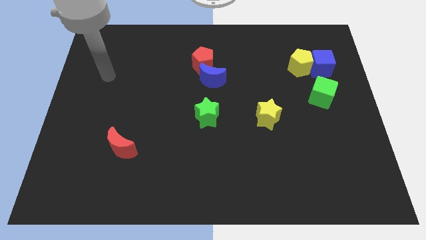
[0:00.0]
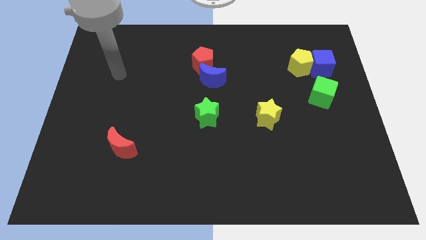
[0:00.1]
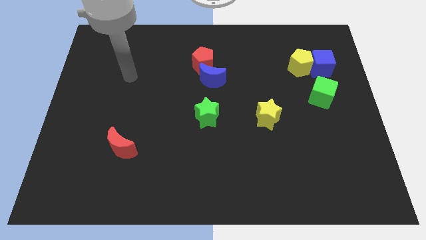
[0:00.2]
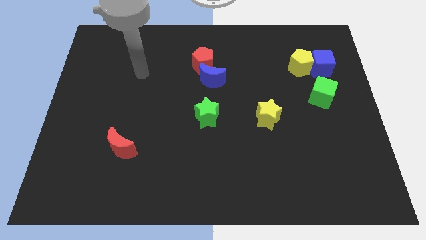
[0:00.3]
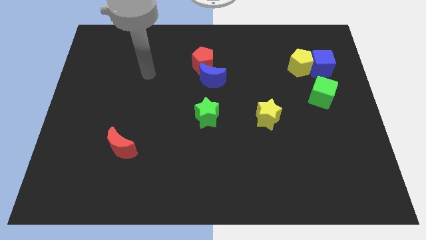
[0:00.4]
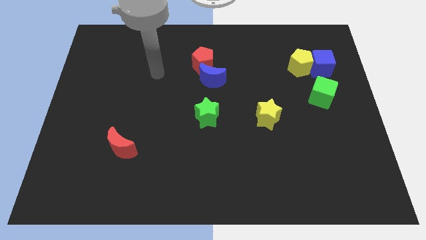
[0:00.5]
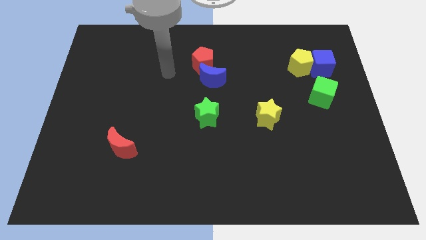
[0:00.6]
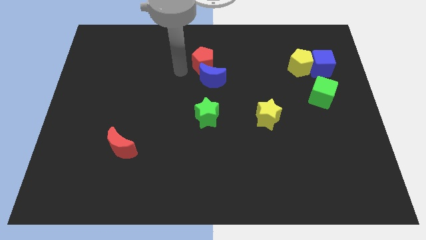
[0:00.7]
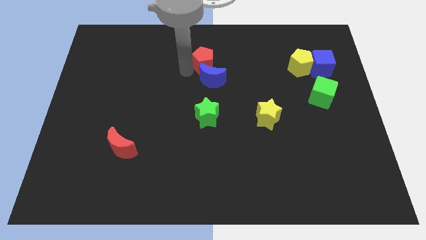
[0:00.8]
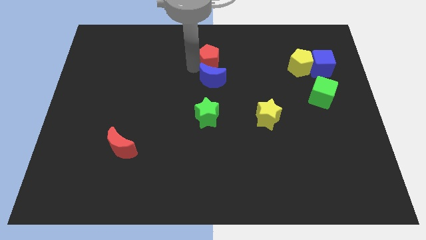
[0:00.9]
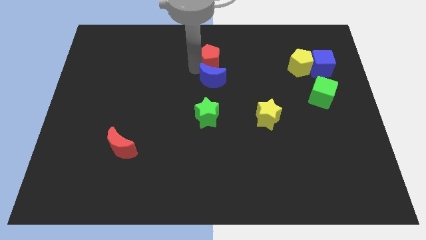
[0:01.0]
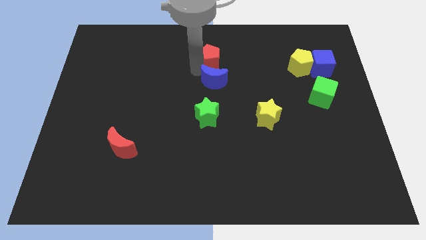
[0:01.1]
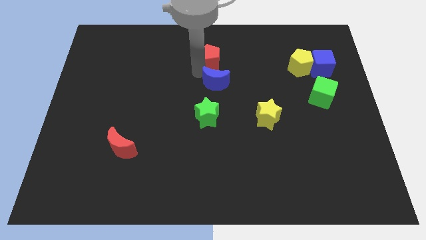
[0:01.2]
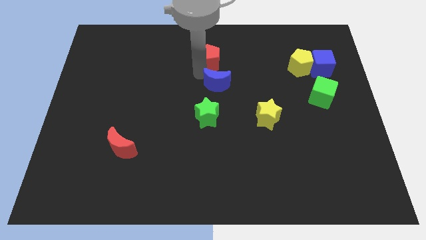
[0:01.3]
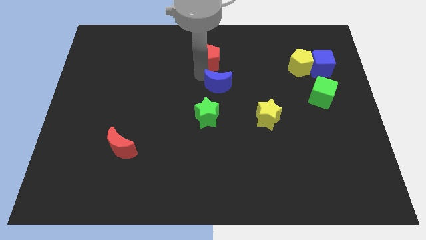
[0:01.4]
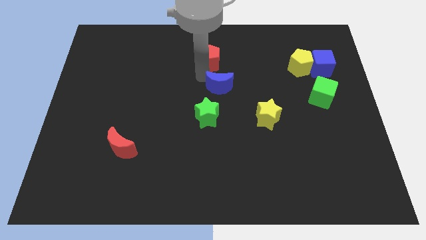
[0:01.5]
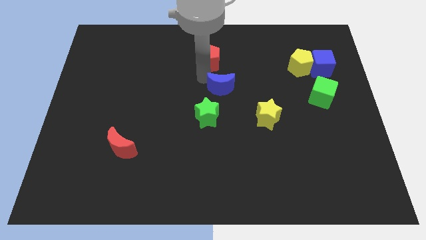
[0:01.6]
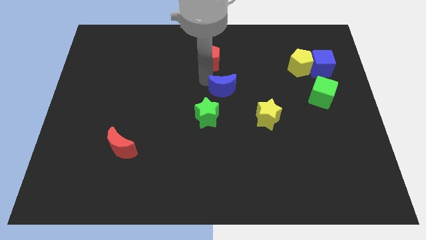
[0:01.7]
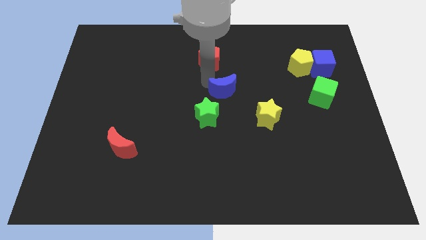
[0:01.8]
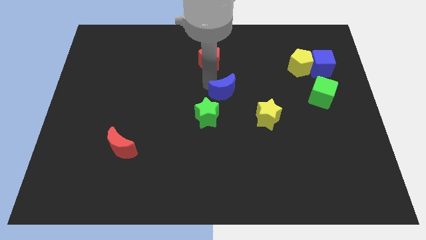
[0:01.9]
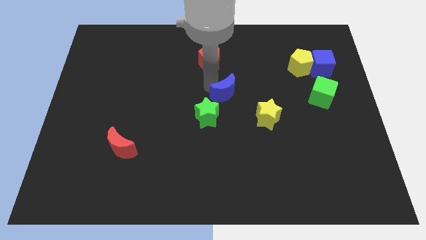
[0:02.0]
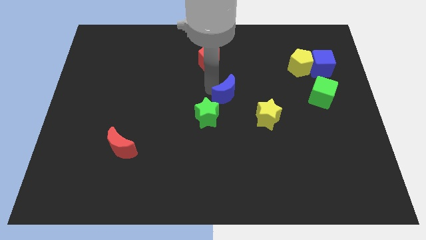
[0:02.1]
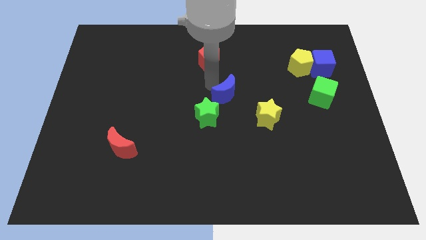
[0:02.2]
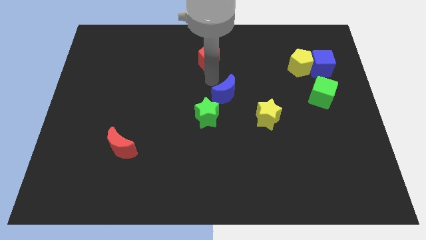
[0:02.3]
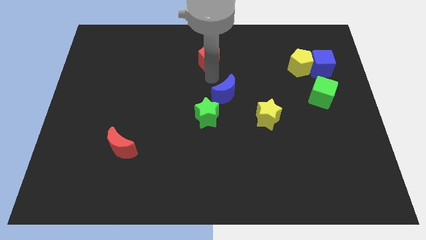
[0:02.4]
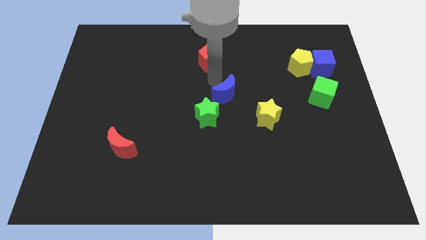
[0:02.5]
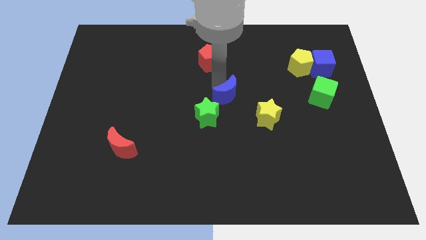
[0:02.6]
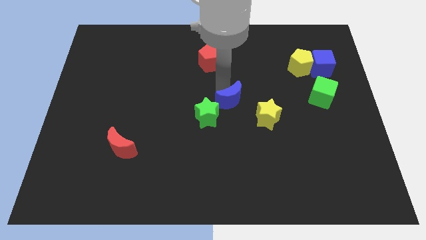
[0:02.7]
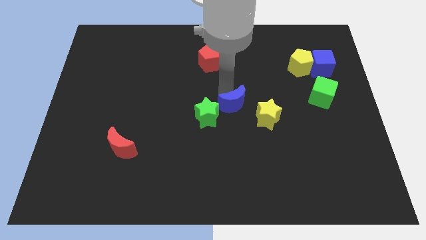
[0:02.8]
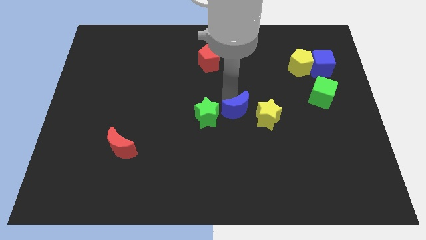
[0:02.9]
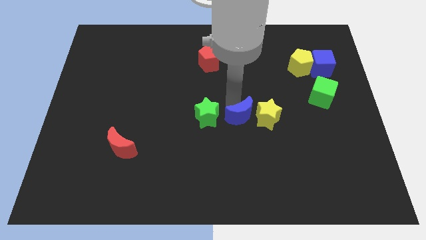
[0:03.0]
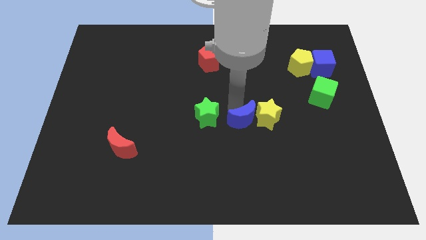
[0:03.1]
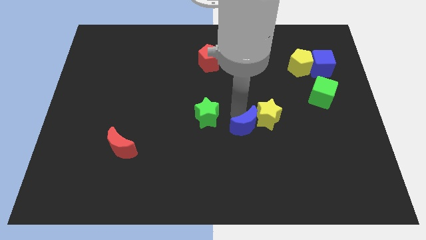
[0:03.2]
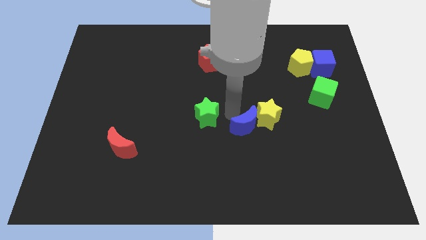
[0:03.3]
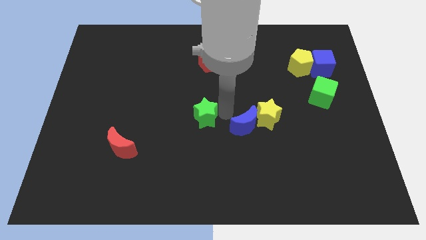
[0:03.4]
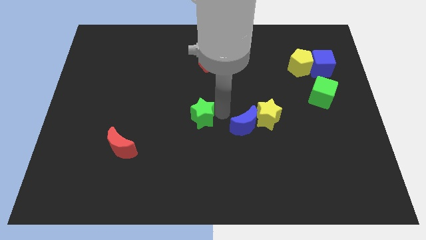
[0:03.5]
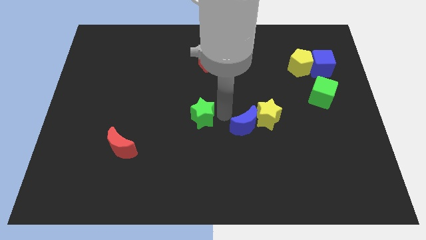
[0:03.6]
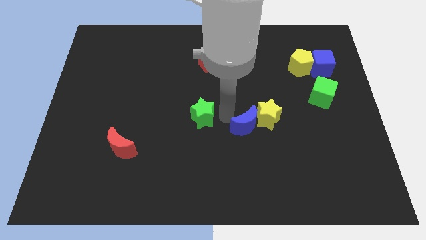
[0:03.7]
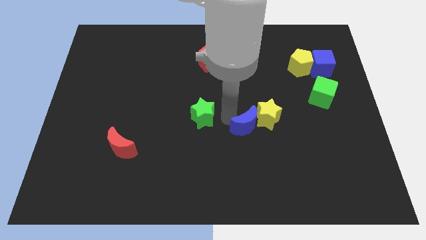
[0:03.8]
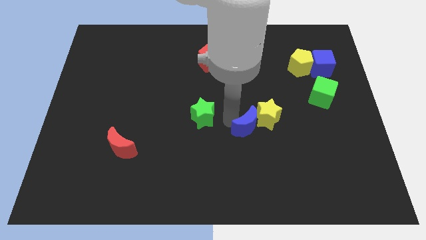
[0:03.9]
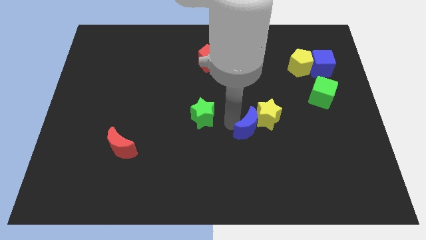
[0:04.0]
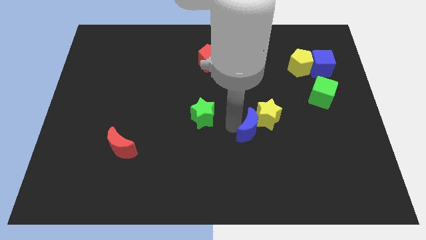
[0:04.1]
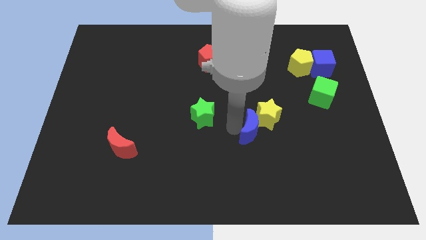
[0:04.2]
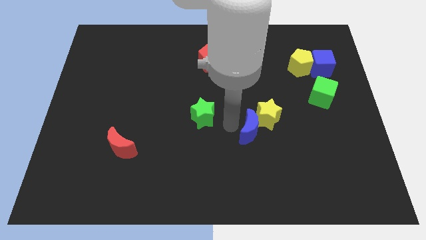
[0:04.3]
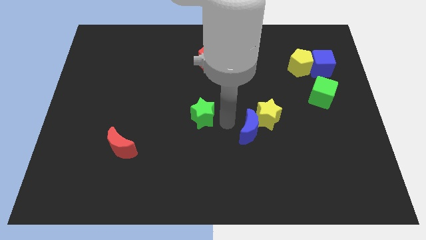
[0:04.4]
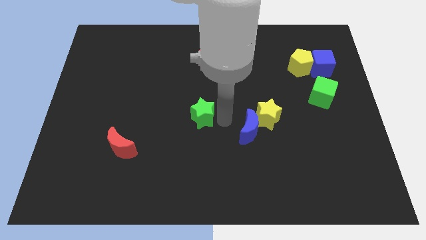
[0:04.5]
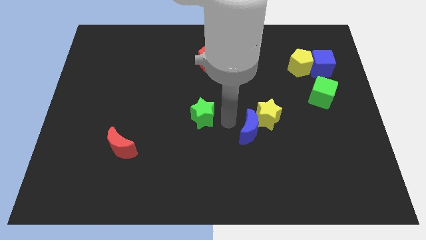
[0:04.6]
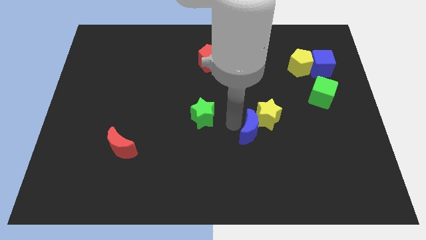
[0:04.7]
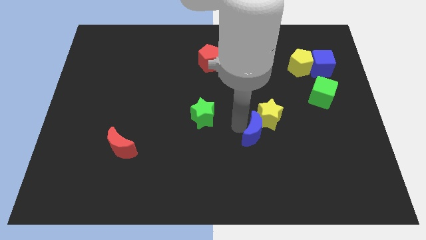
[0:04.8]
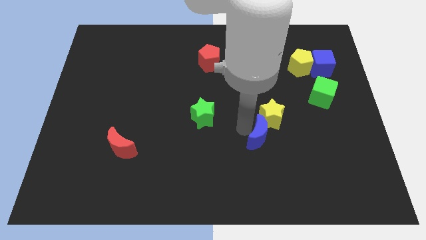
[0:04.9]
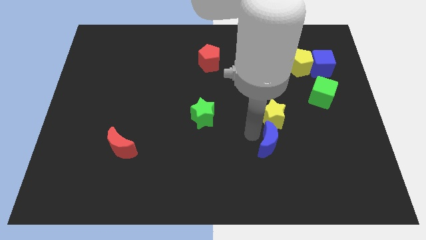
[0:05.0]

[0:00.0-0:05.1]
slide the blue moon downwards and to the right

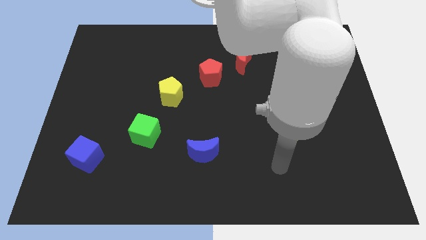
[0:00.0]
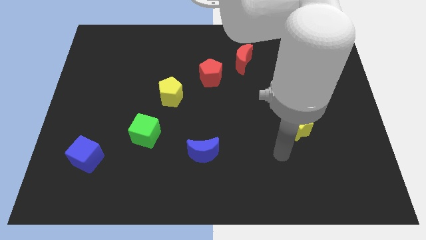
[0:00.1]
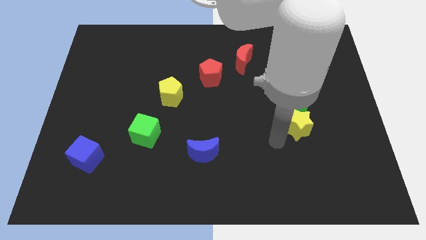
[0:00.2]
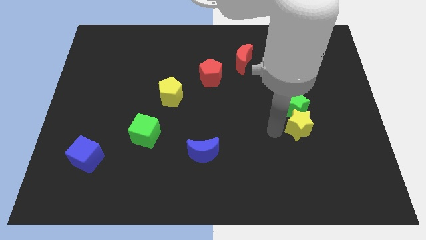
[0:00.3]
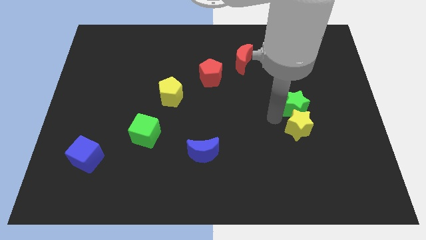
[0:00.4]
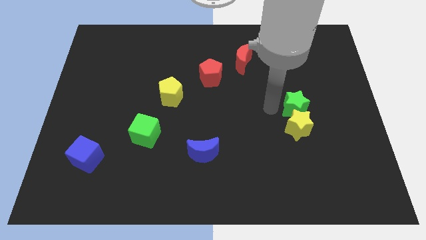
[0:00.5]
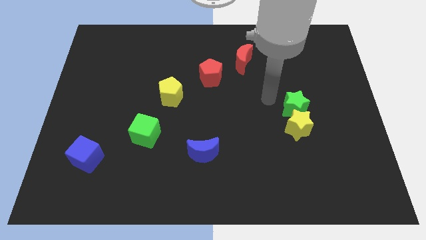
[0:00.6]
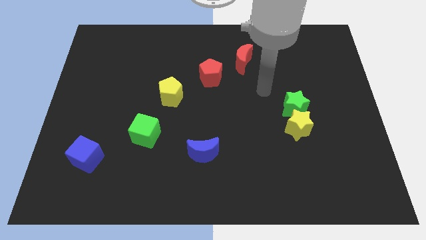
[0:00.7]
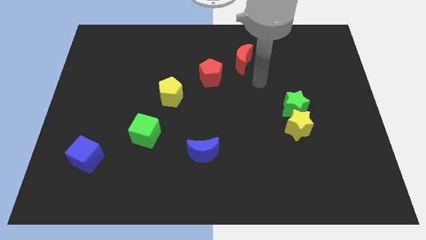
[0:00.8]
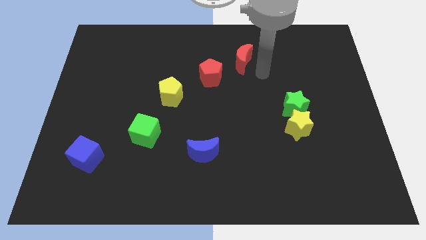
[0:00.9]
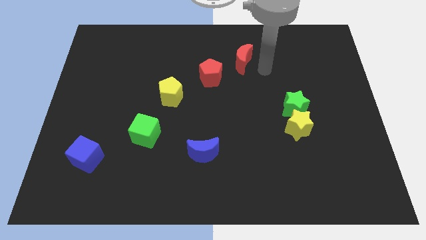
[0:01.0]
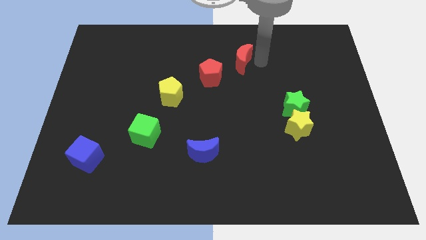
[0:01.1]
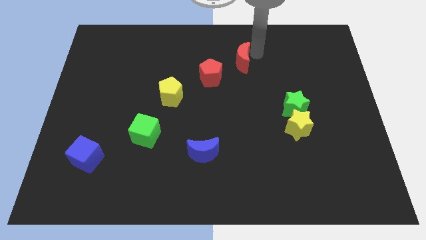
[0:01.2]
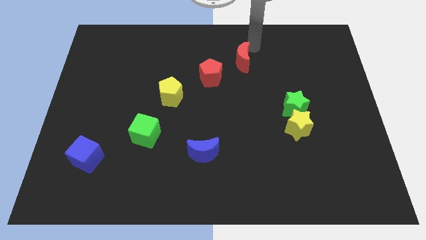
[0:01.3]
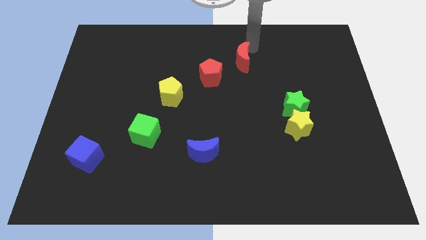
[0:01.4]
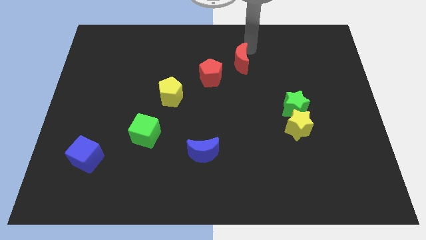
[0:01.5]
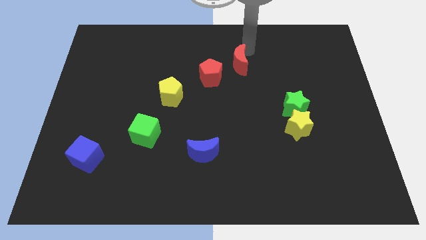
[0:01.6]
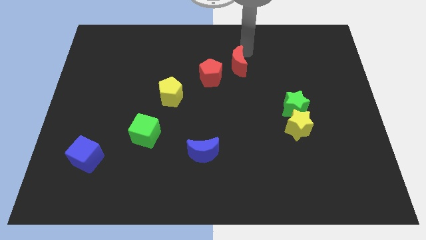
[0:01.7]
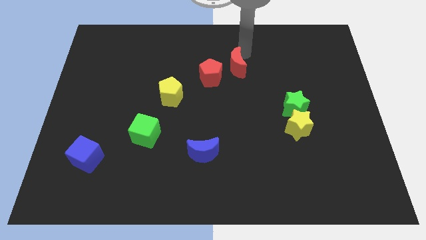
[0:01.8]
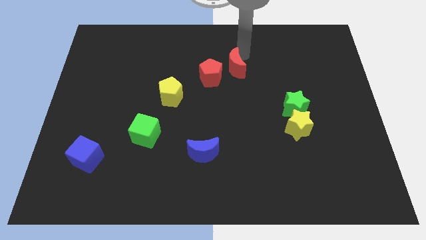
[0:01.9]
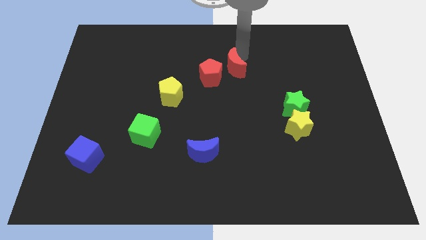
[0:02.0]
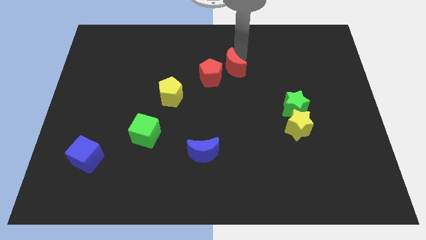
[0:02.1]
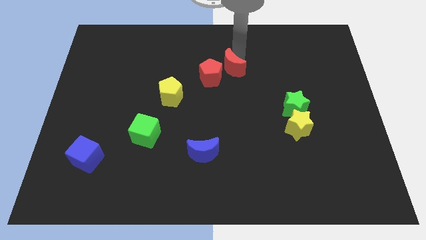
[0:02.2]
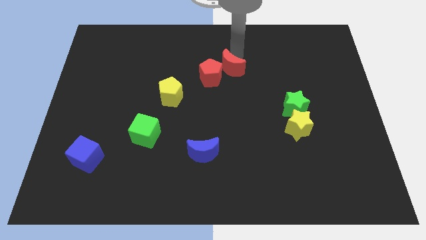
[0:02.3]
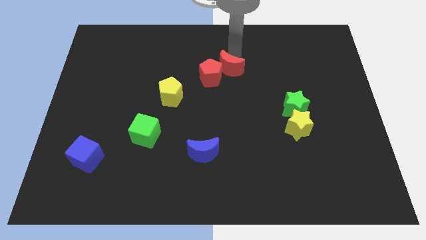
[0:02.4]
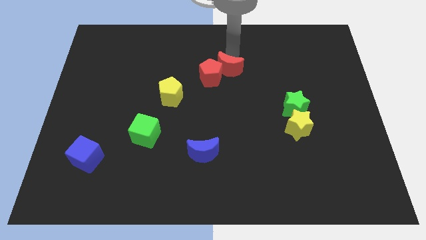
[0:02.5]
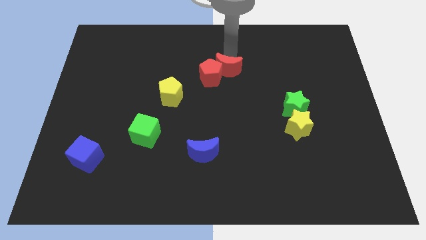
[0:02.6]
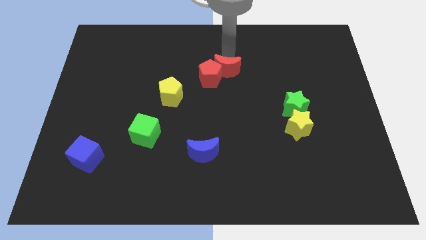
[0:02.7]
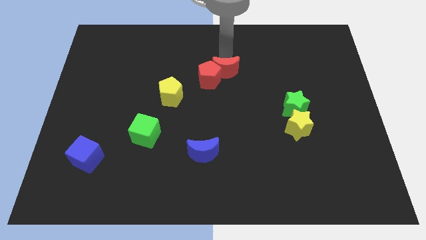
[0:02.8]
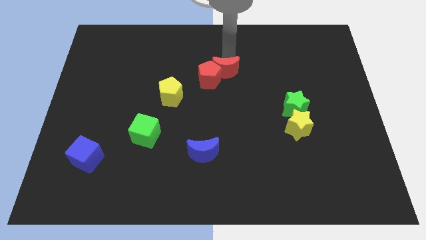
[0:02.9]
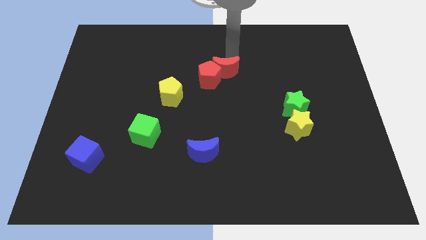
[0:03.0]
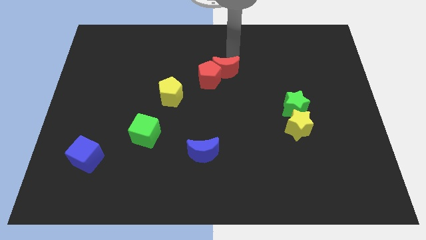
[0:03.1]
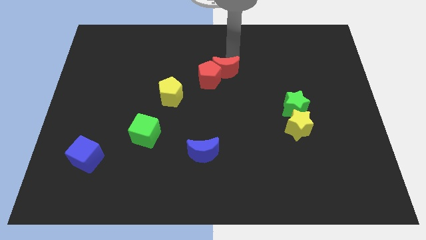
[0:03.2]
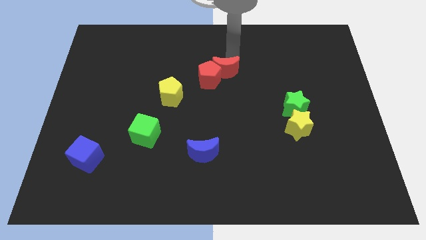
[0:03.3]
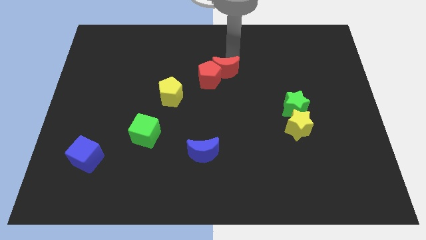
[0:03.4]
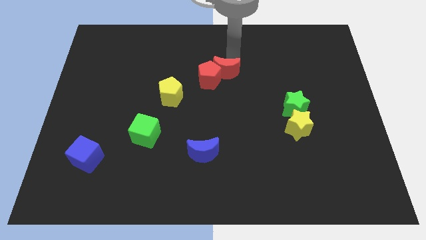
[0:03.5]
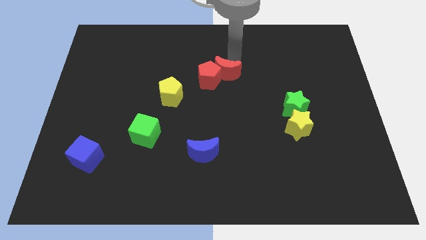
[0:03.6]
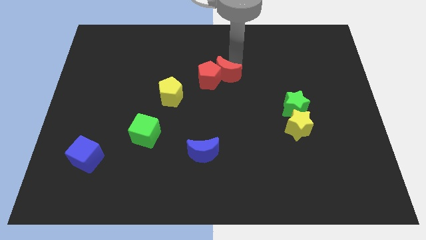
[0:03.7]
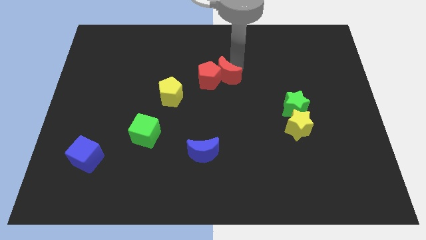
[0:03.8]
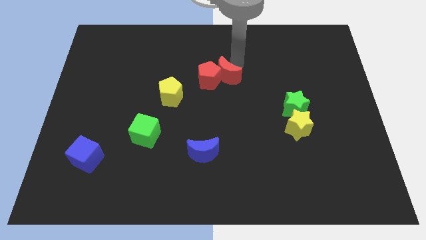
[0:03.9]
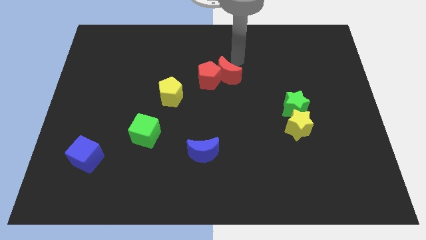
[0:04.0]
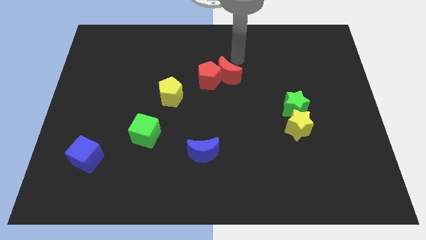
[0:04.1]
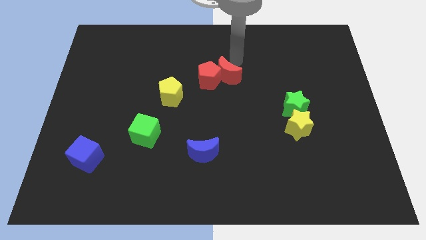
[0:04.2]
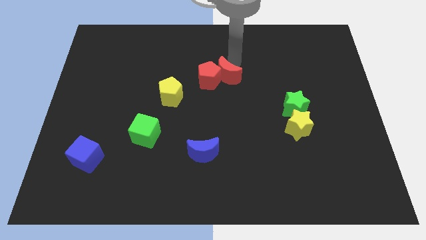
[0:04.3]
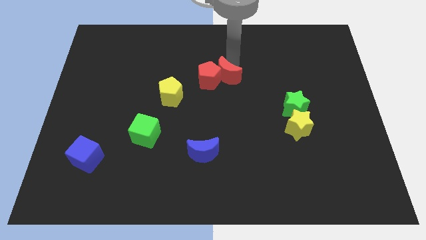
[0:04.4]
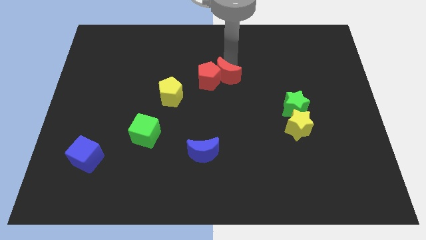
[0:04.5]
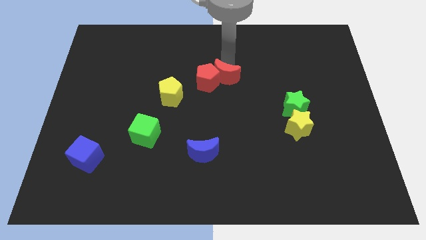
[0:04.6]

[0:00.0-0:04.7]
move the red moon slightly downwards and left
